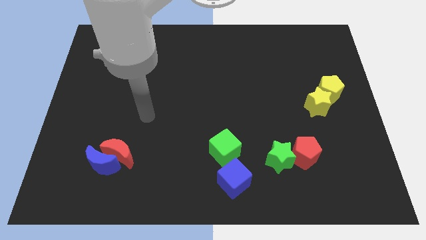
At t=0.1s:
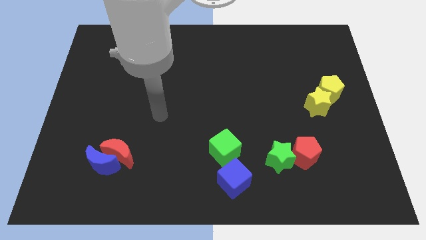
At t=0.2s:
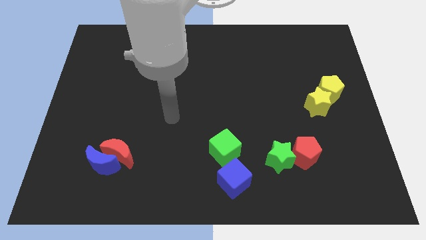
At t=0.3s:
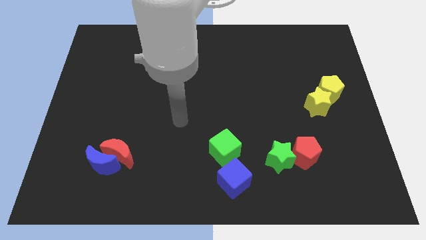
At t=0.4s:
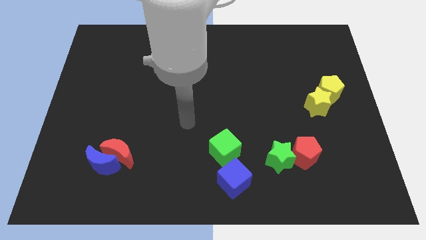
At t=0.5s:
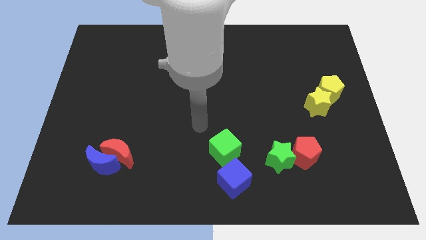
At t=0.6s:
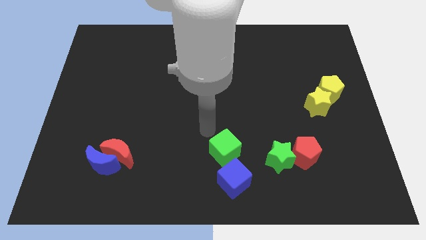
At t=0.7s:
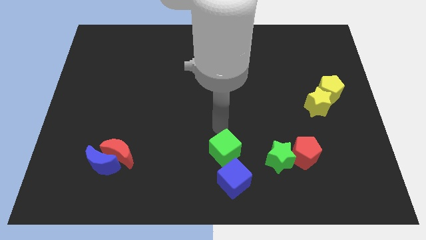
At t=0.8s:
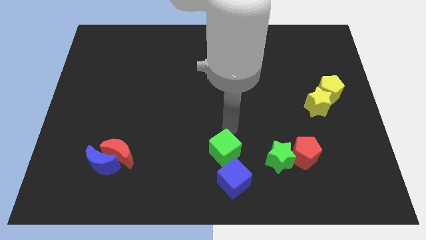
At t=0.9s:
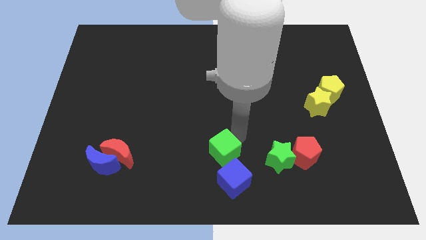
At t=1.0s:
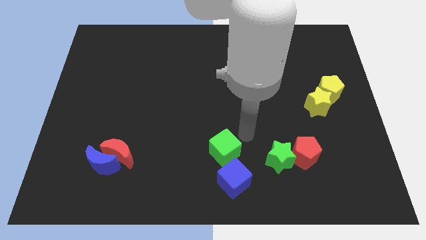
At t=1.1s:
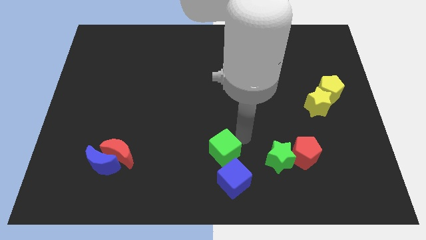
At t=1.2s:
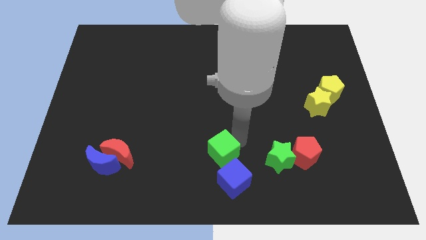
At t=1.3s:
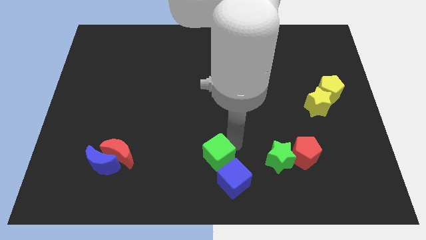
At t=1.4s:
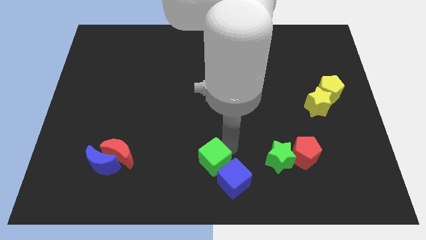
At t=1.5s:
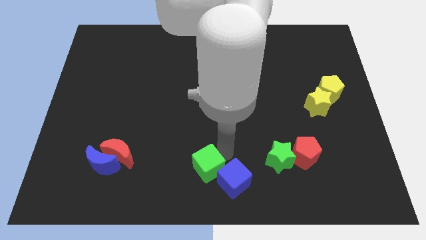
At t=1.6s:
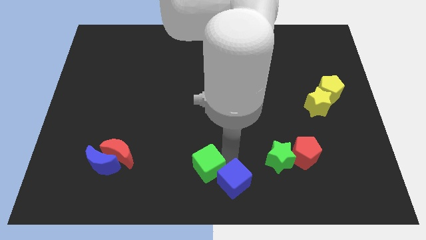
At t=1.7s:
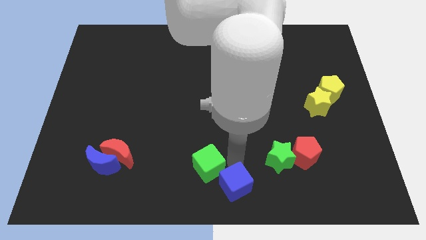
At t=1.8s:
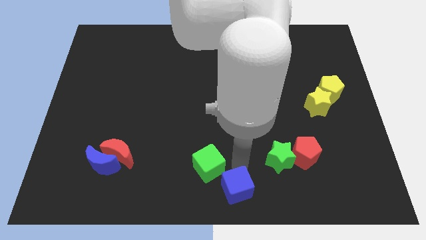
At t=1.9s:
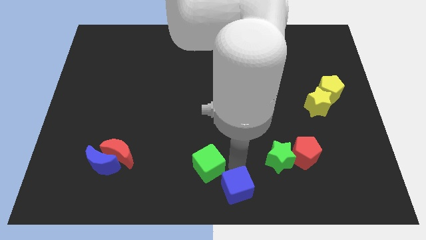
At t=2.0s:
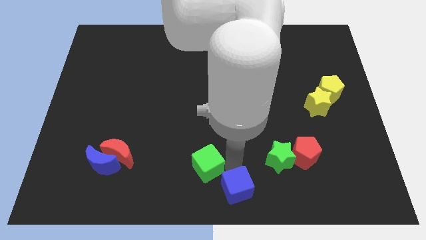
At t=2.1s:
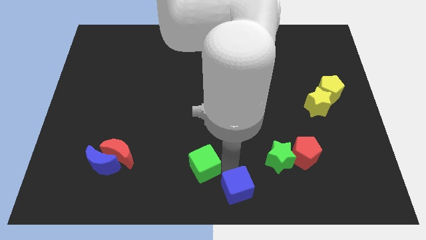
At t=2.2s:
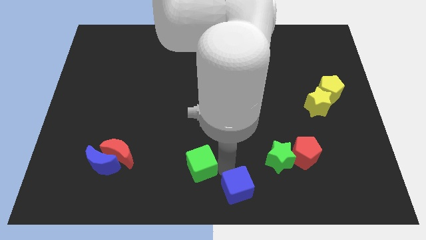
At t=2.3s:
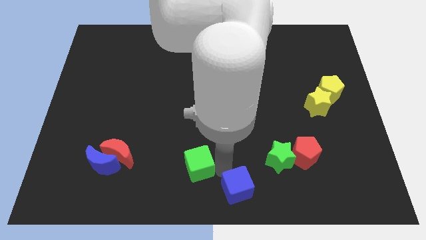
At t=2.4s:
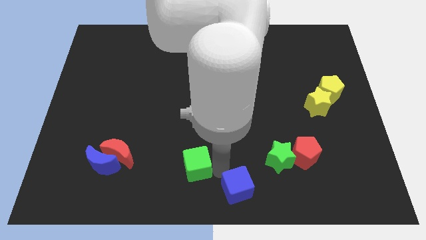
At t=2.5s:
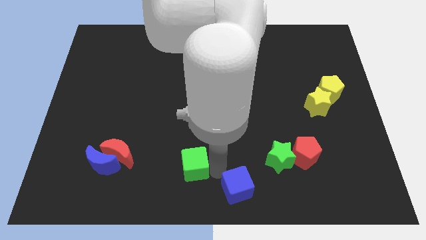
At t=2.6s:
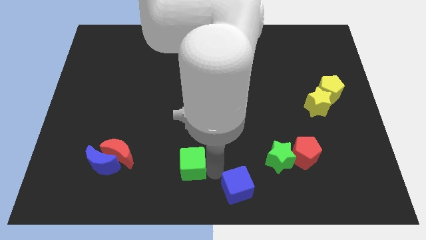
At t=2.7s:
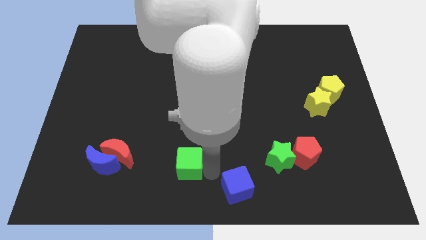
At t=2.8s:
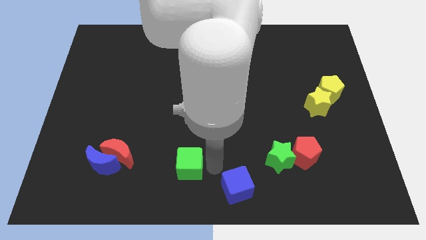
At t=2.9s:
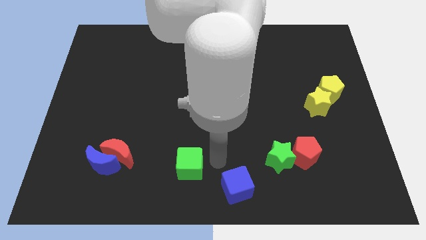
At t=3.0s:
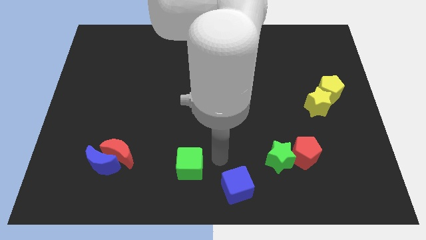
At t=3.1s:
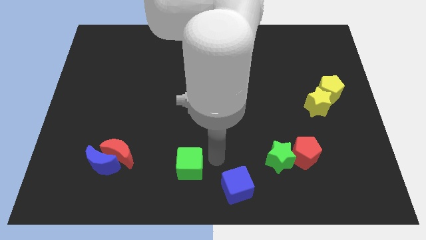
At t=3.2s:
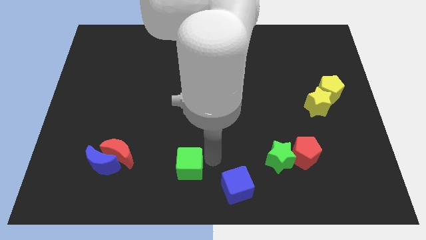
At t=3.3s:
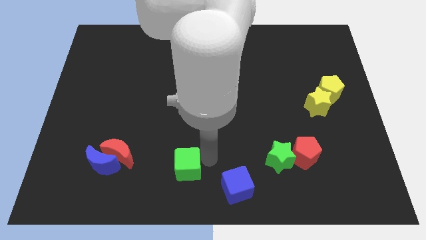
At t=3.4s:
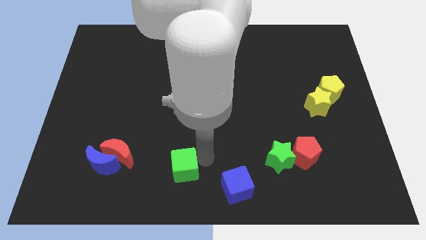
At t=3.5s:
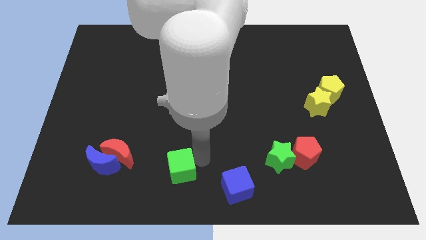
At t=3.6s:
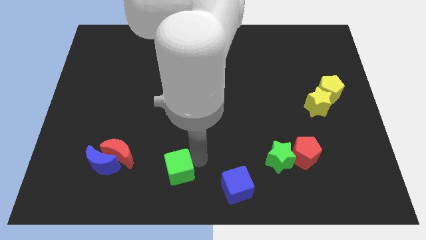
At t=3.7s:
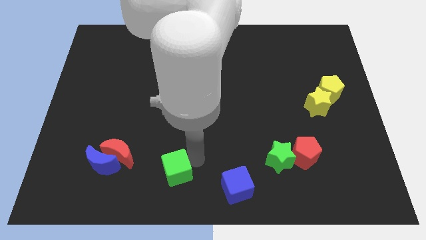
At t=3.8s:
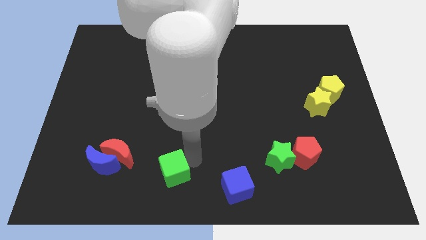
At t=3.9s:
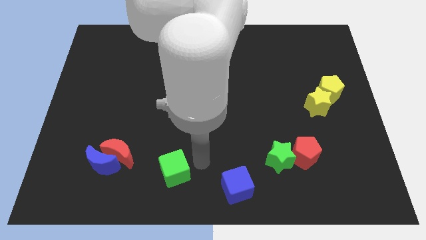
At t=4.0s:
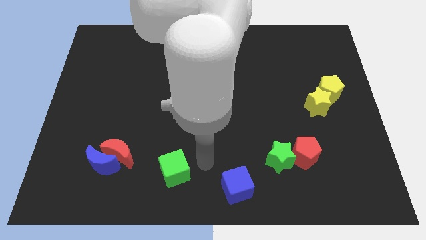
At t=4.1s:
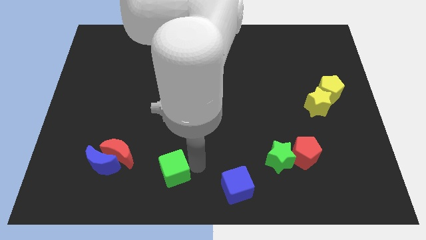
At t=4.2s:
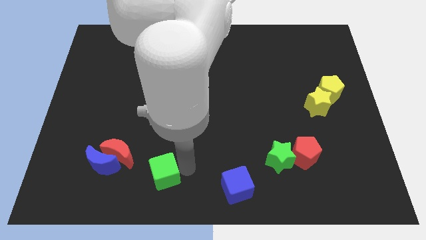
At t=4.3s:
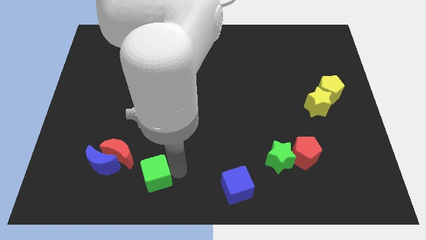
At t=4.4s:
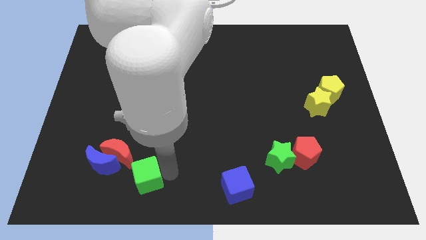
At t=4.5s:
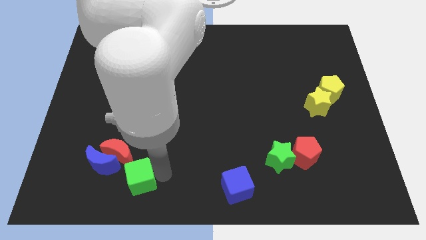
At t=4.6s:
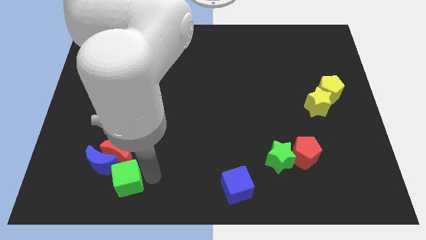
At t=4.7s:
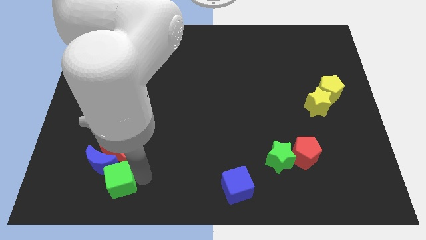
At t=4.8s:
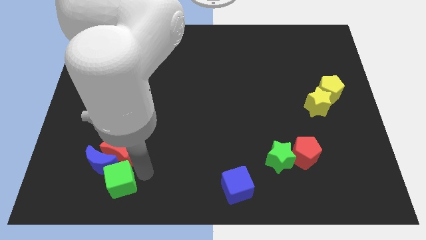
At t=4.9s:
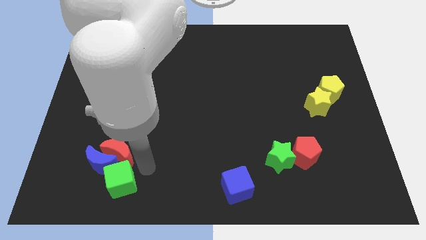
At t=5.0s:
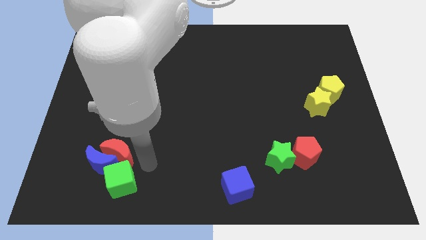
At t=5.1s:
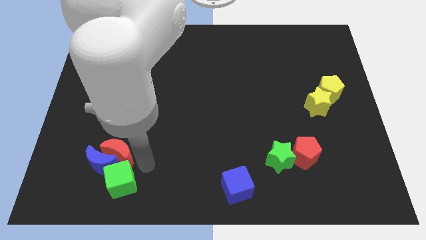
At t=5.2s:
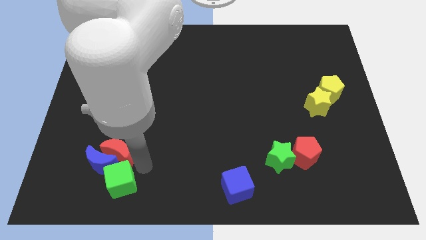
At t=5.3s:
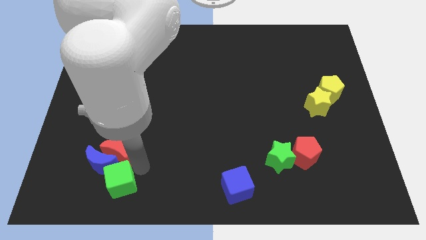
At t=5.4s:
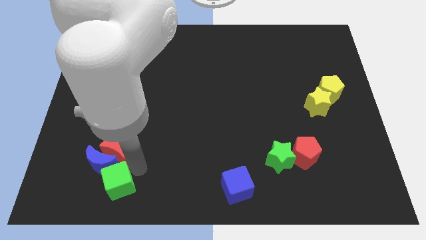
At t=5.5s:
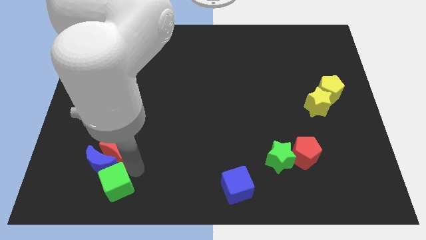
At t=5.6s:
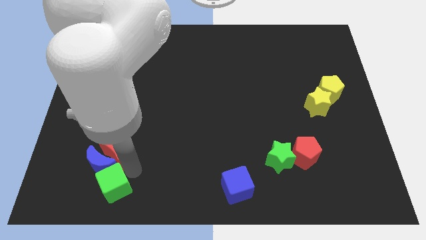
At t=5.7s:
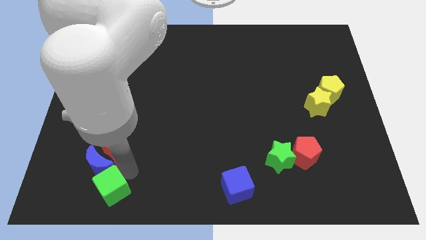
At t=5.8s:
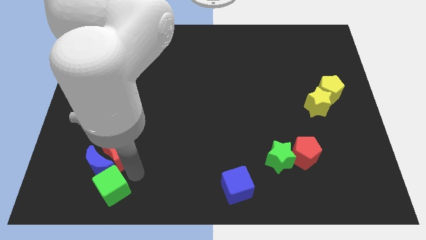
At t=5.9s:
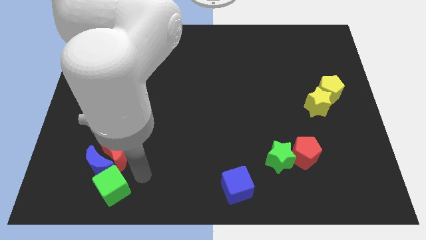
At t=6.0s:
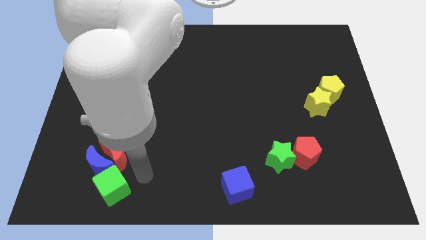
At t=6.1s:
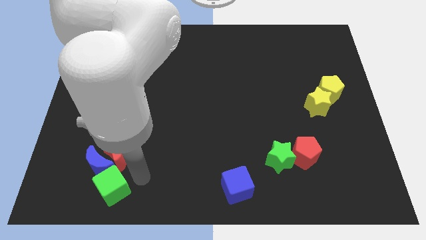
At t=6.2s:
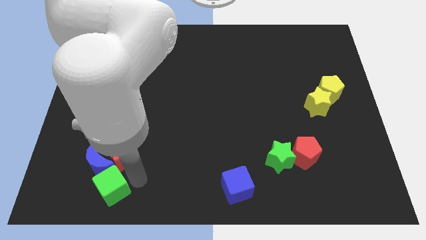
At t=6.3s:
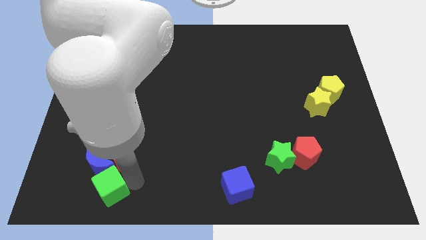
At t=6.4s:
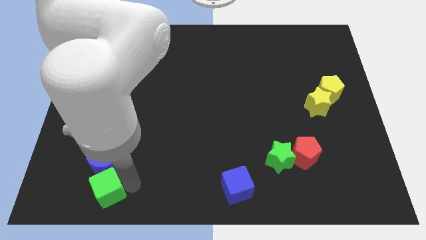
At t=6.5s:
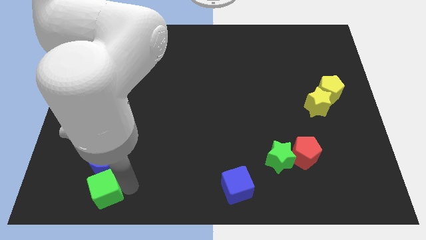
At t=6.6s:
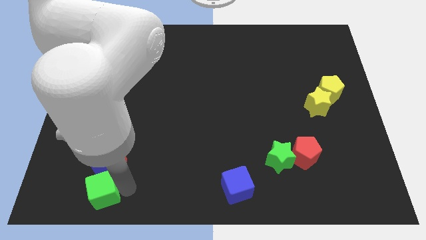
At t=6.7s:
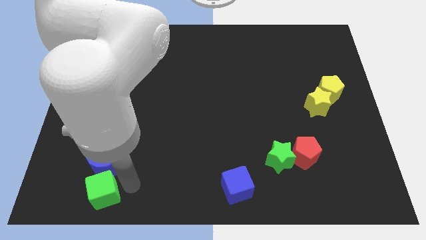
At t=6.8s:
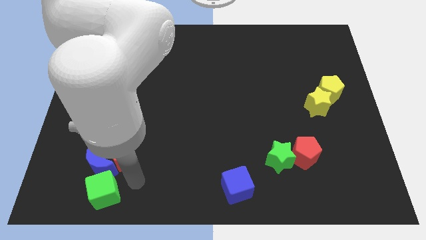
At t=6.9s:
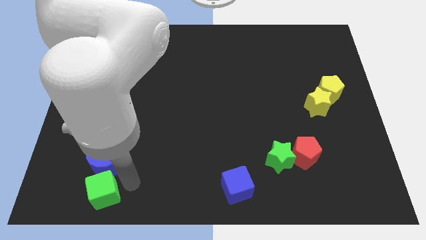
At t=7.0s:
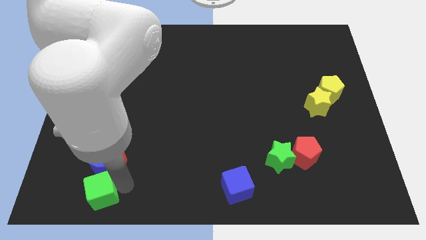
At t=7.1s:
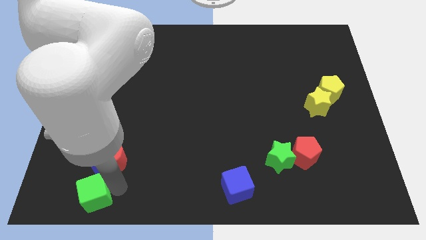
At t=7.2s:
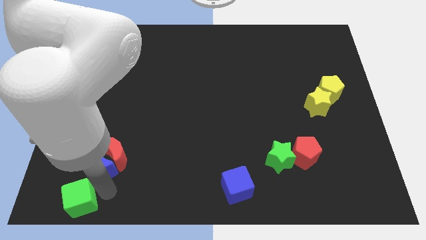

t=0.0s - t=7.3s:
slide the green cube to the bottom left of the board

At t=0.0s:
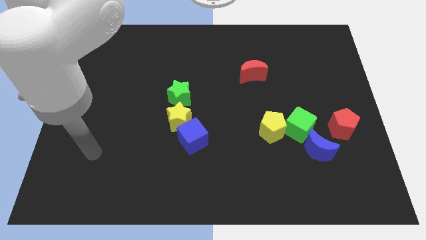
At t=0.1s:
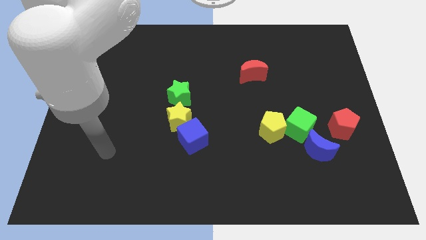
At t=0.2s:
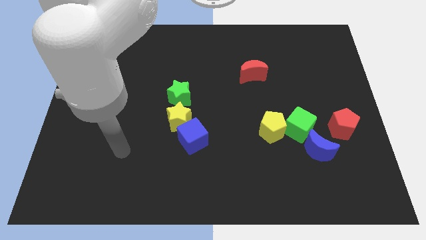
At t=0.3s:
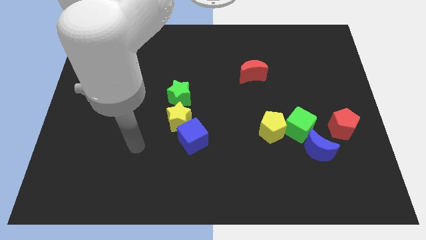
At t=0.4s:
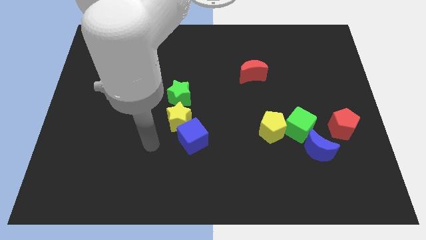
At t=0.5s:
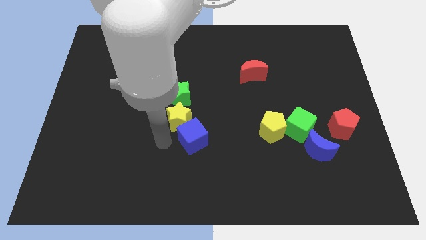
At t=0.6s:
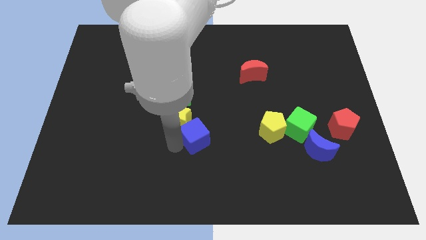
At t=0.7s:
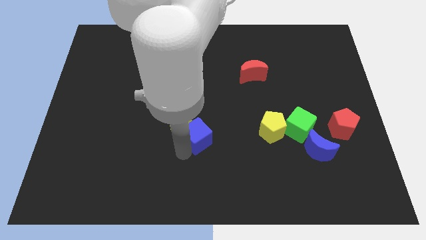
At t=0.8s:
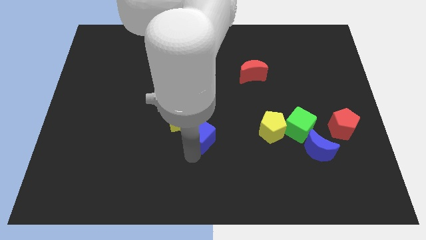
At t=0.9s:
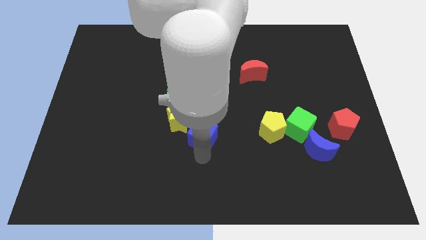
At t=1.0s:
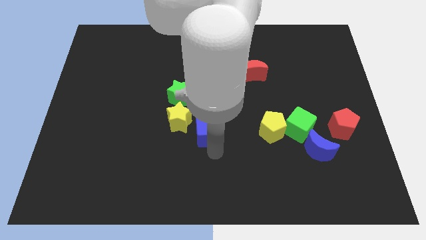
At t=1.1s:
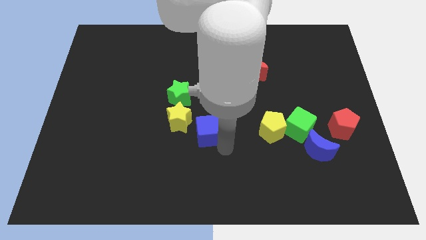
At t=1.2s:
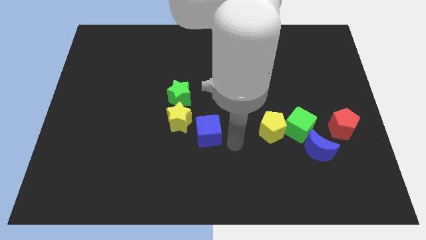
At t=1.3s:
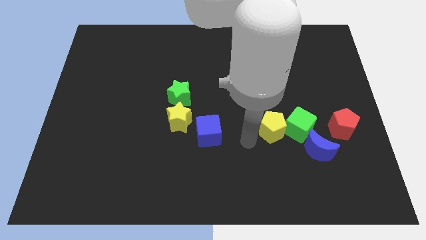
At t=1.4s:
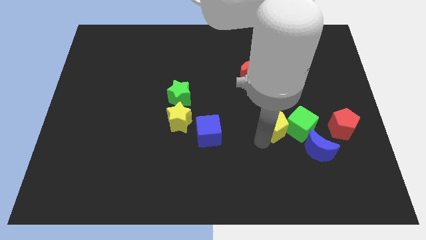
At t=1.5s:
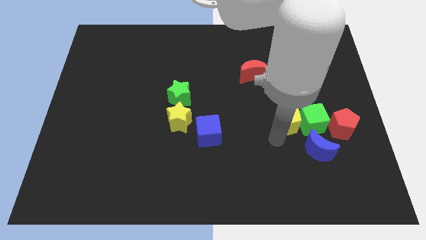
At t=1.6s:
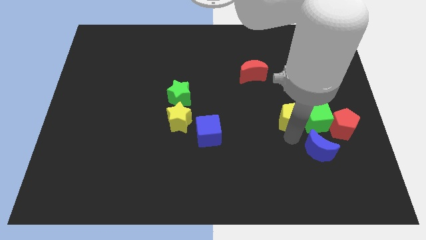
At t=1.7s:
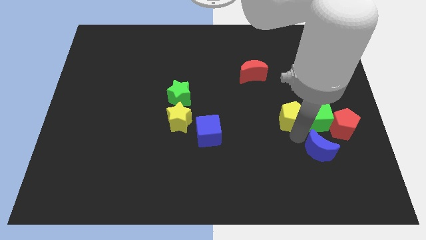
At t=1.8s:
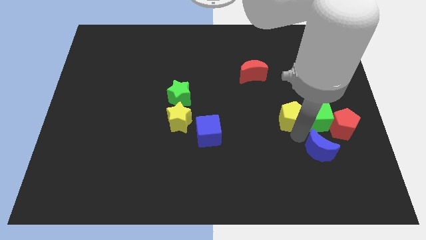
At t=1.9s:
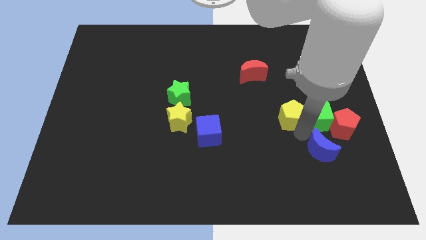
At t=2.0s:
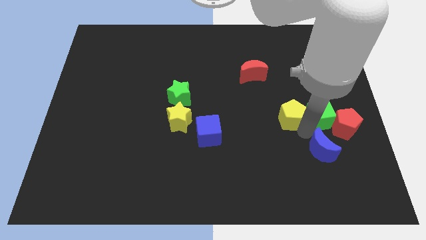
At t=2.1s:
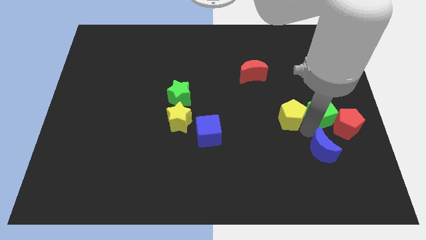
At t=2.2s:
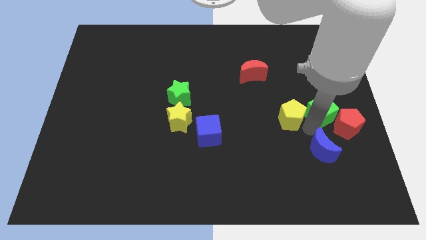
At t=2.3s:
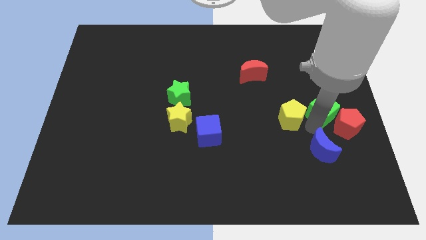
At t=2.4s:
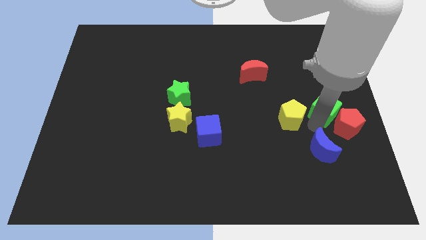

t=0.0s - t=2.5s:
move the green cube to the right side of the board
